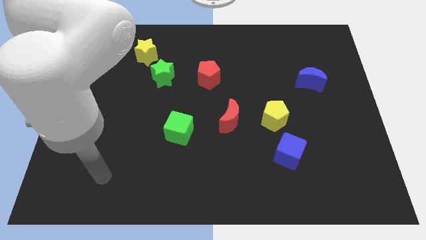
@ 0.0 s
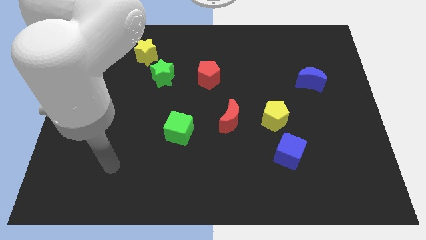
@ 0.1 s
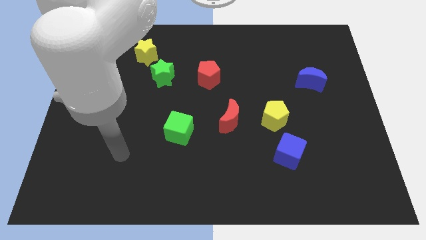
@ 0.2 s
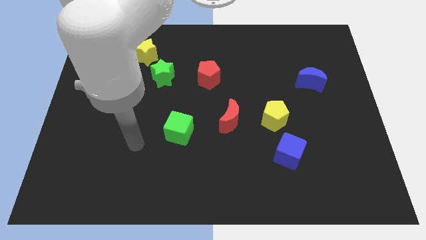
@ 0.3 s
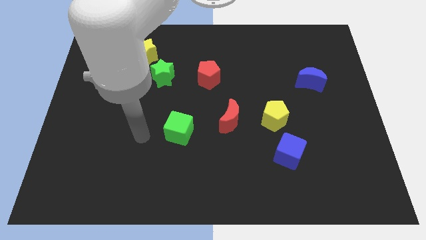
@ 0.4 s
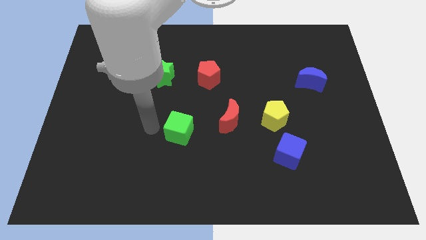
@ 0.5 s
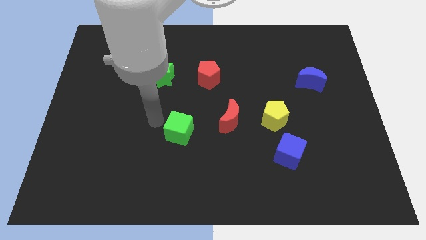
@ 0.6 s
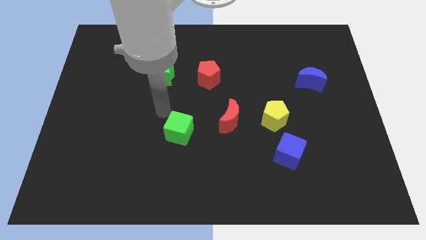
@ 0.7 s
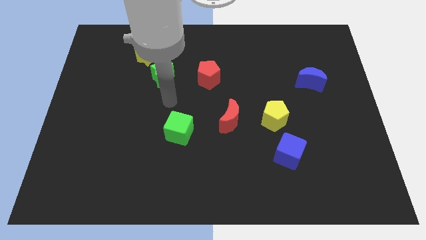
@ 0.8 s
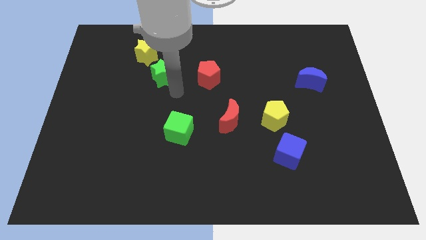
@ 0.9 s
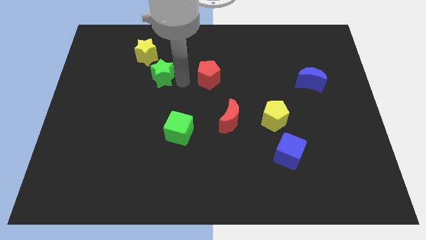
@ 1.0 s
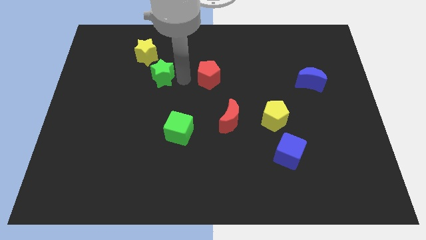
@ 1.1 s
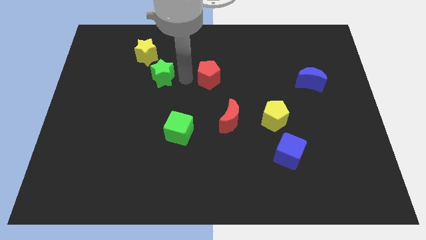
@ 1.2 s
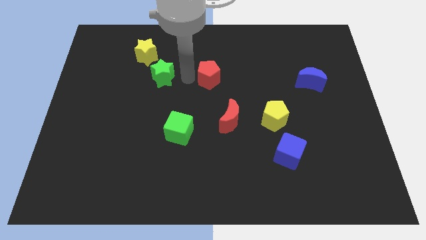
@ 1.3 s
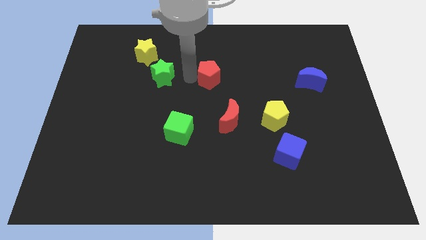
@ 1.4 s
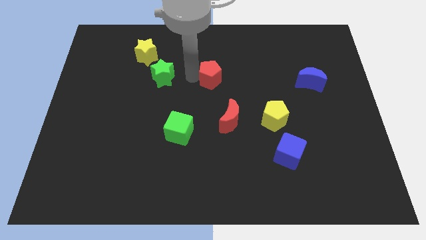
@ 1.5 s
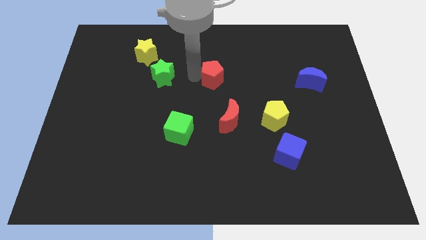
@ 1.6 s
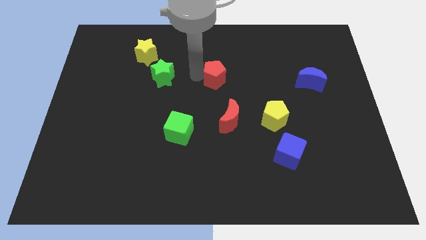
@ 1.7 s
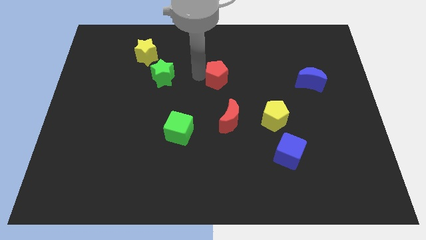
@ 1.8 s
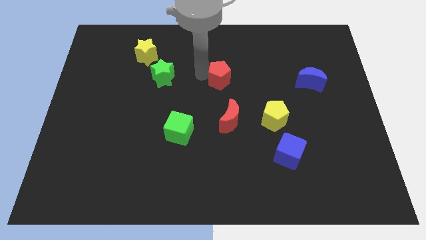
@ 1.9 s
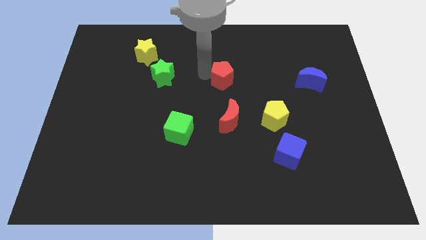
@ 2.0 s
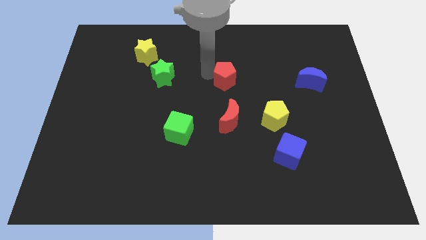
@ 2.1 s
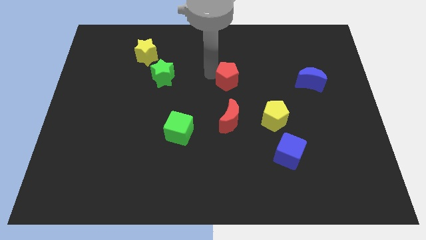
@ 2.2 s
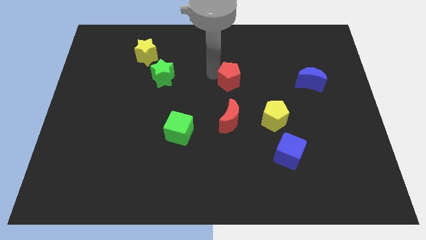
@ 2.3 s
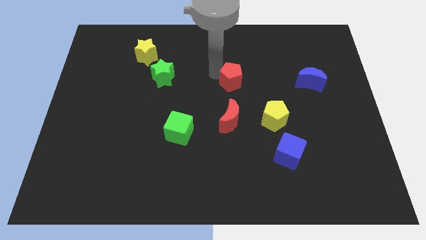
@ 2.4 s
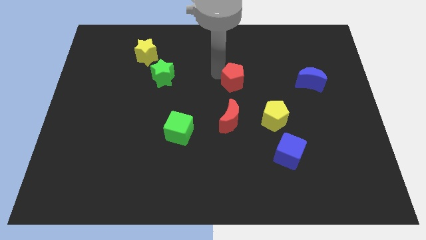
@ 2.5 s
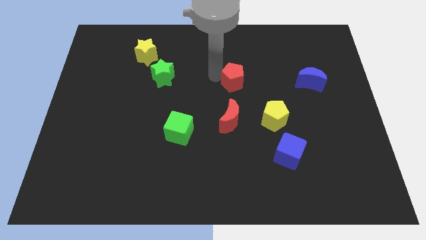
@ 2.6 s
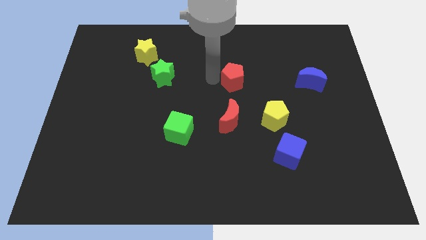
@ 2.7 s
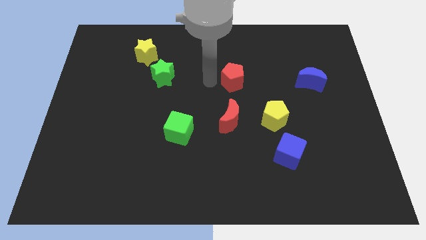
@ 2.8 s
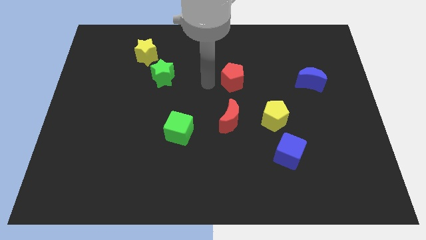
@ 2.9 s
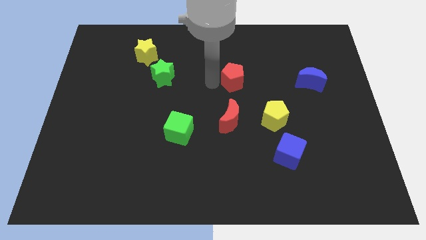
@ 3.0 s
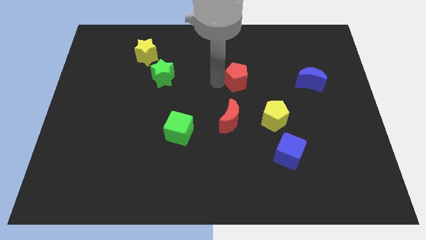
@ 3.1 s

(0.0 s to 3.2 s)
slightly push the red pentagon to the right

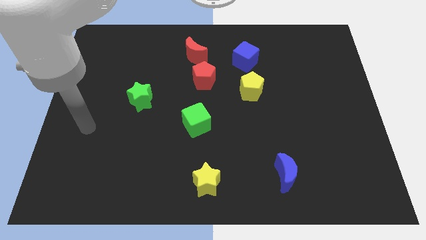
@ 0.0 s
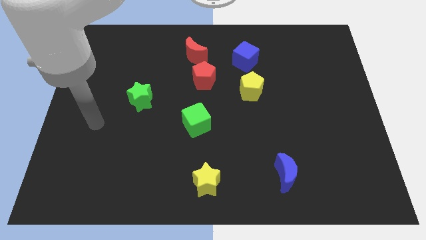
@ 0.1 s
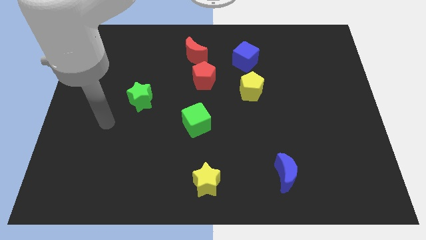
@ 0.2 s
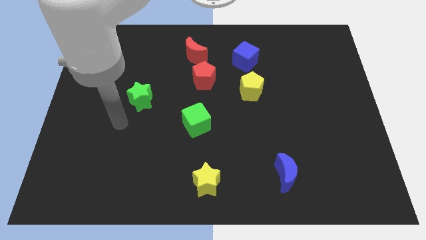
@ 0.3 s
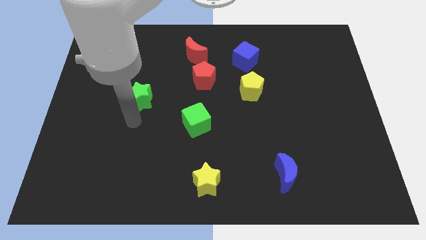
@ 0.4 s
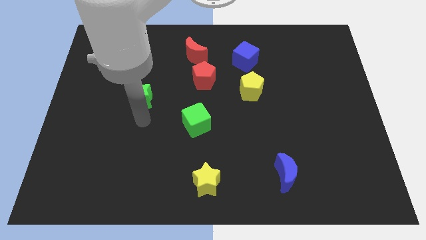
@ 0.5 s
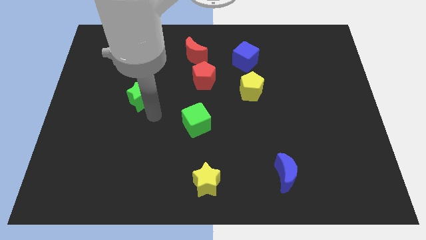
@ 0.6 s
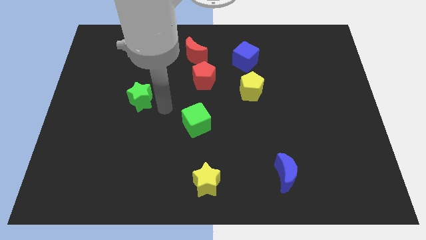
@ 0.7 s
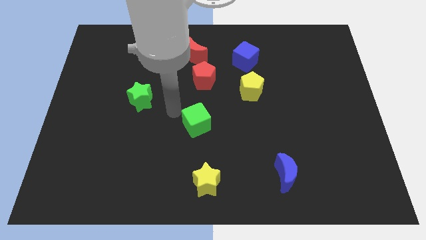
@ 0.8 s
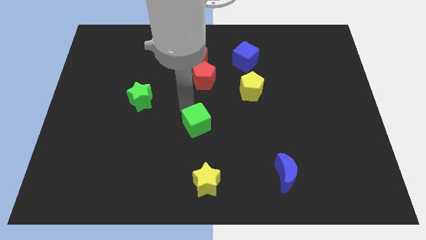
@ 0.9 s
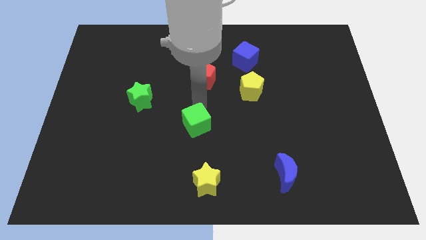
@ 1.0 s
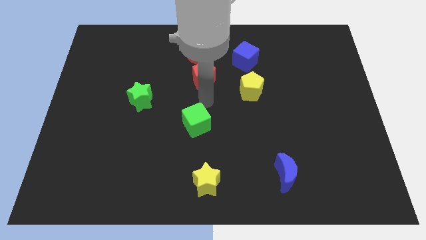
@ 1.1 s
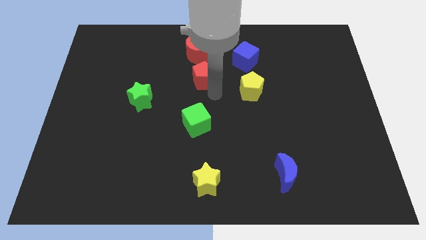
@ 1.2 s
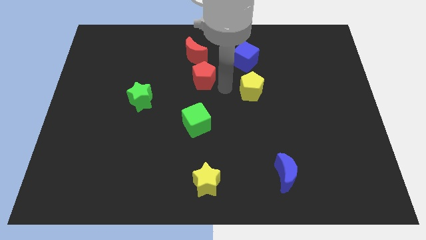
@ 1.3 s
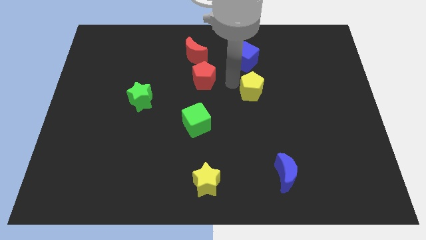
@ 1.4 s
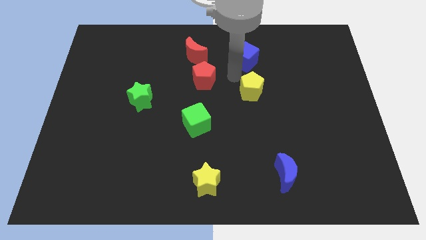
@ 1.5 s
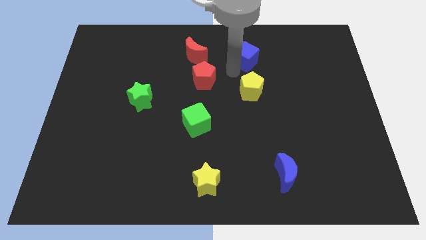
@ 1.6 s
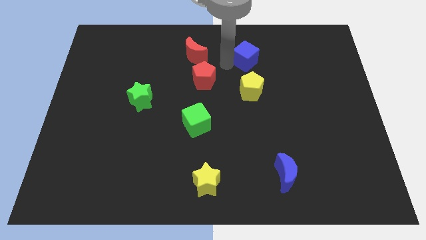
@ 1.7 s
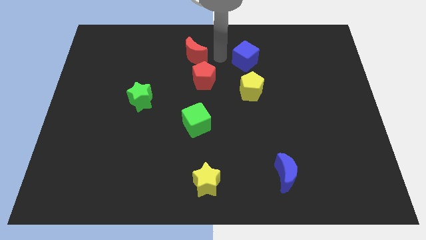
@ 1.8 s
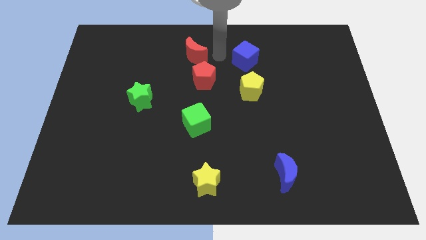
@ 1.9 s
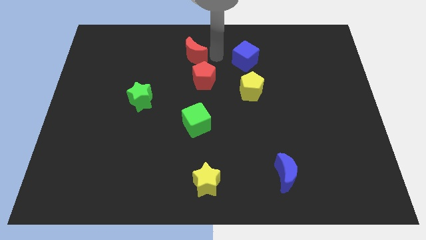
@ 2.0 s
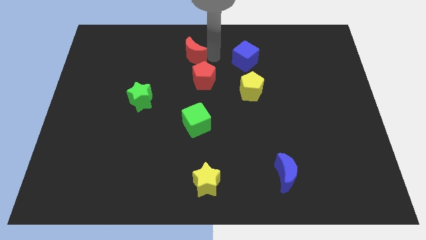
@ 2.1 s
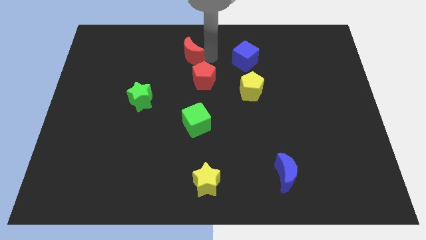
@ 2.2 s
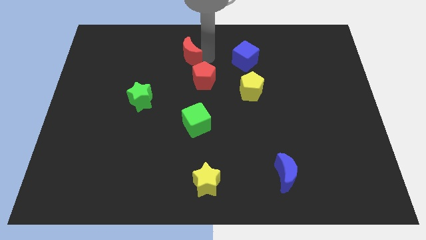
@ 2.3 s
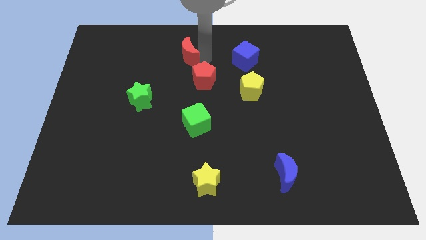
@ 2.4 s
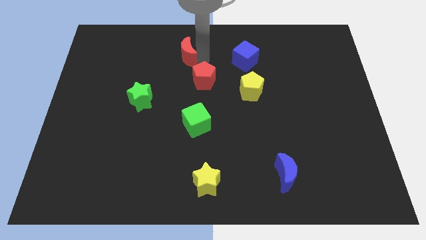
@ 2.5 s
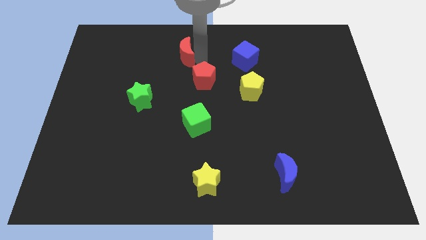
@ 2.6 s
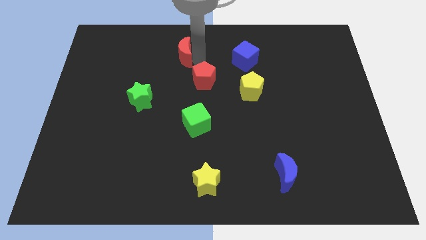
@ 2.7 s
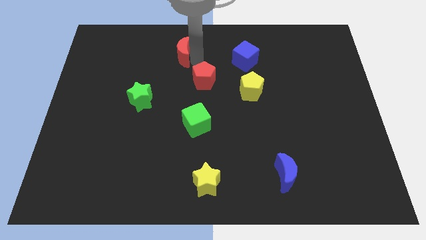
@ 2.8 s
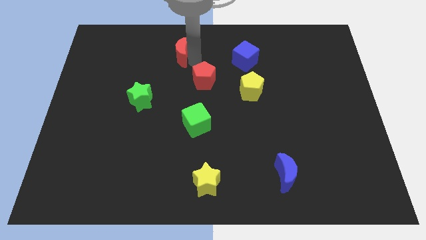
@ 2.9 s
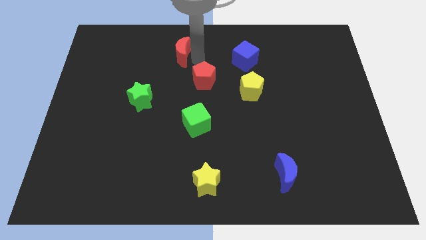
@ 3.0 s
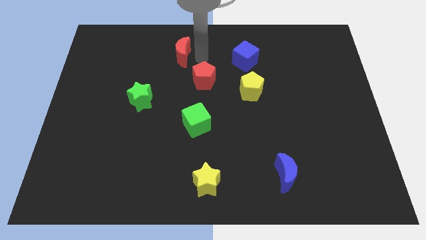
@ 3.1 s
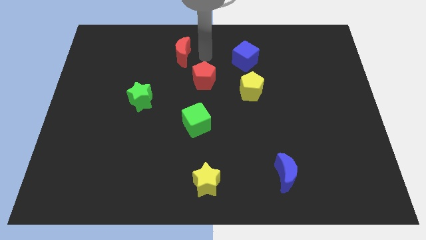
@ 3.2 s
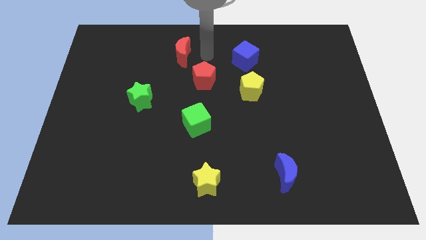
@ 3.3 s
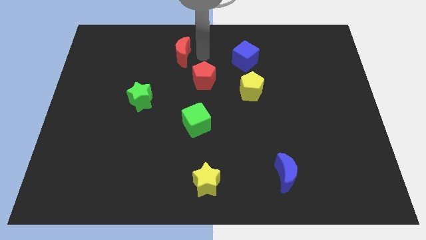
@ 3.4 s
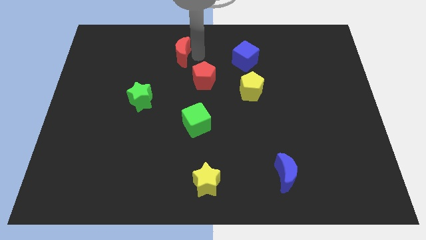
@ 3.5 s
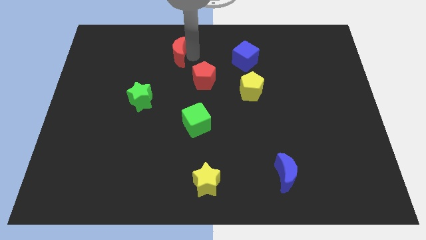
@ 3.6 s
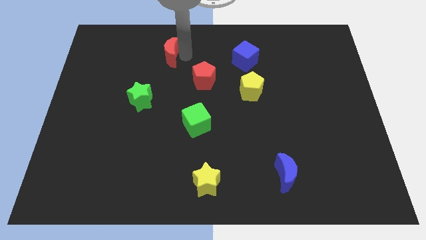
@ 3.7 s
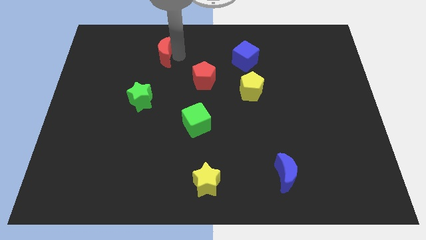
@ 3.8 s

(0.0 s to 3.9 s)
move the red moon a little to the left

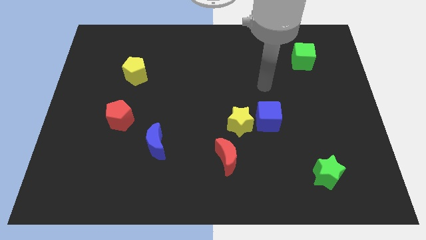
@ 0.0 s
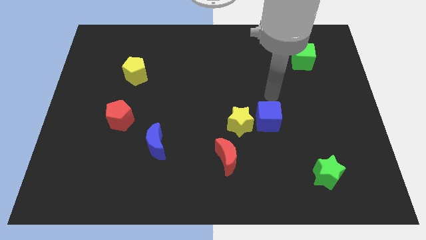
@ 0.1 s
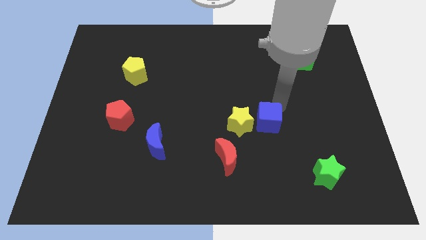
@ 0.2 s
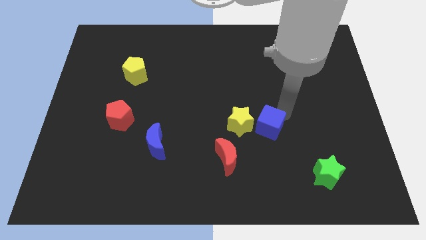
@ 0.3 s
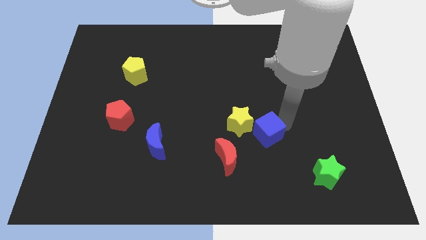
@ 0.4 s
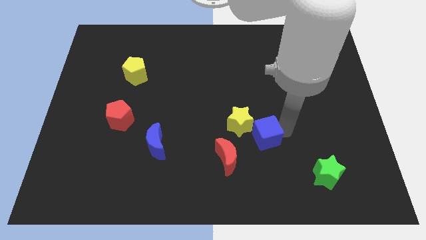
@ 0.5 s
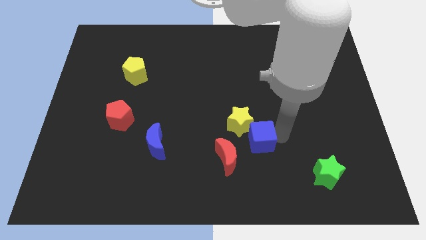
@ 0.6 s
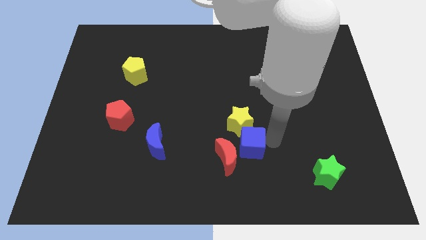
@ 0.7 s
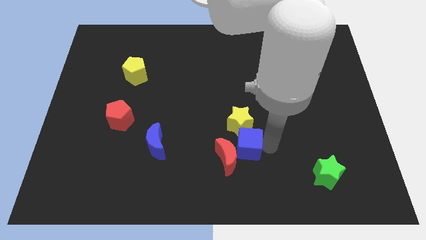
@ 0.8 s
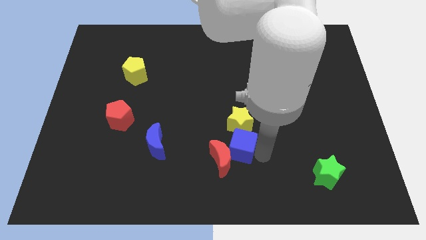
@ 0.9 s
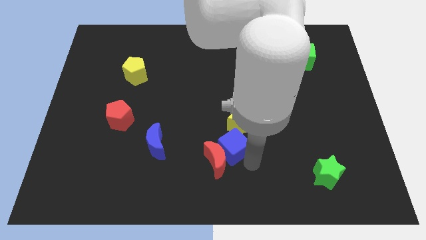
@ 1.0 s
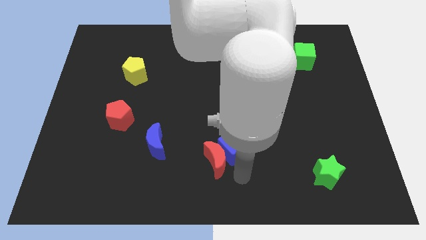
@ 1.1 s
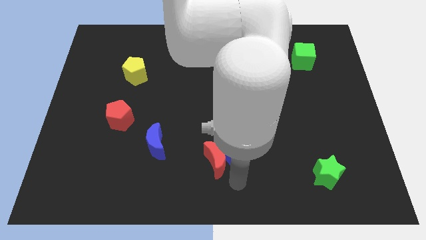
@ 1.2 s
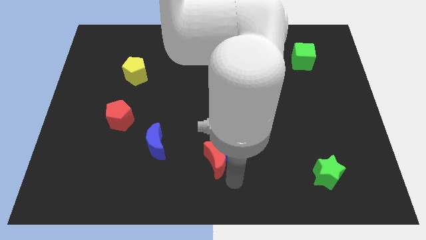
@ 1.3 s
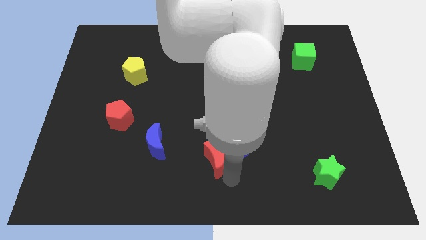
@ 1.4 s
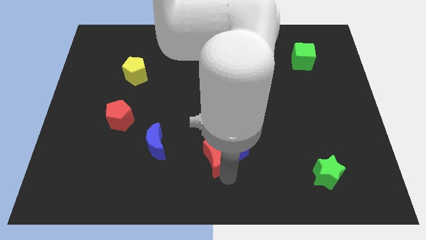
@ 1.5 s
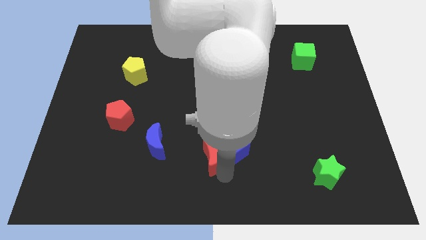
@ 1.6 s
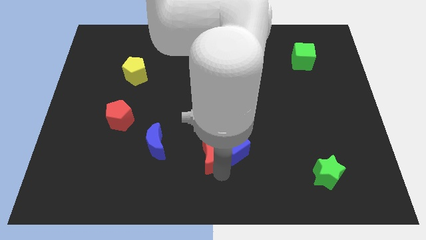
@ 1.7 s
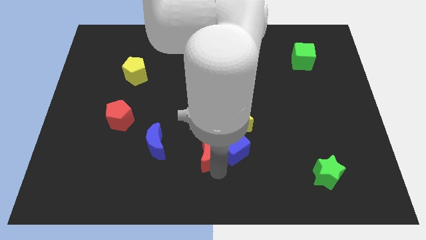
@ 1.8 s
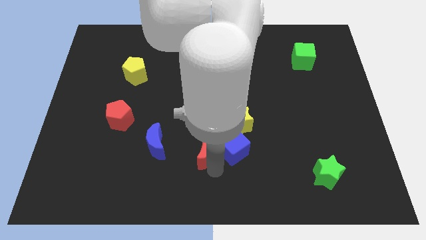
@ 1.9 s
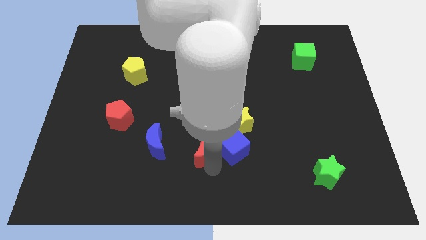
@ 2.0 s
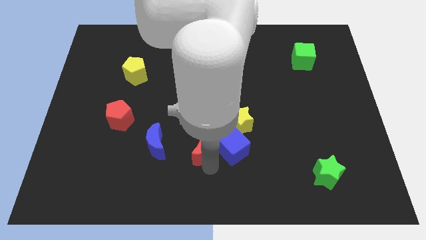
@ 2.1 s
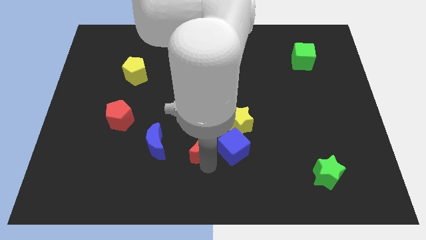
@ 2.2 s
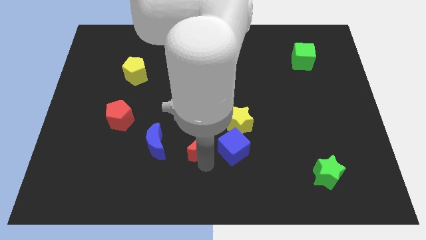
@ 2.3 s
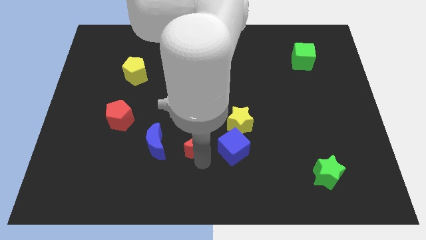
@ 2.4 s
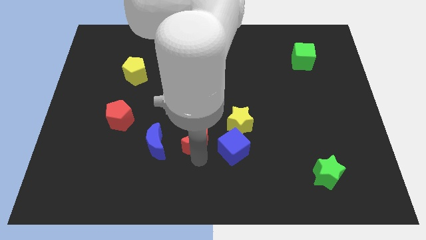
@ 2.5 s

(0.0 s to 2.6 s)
slide the red moon slightly diagonally up and left
